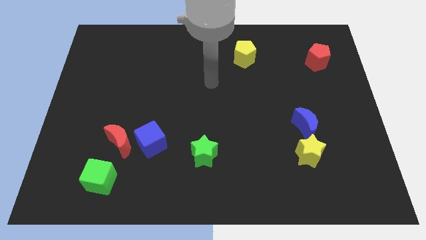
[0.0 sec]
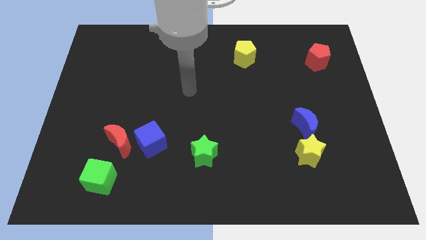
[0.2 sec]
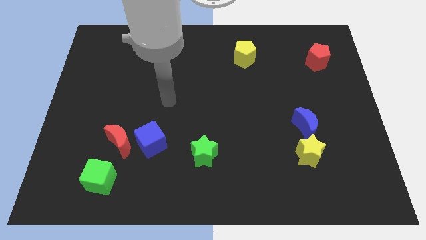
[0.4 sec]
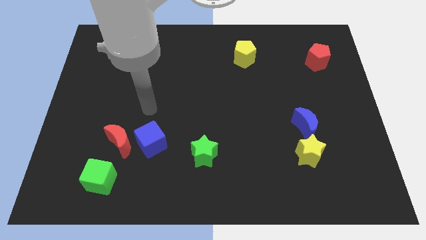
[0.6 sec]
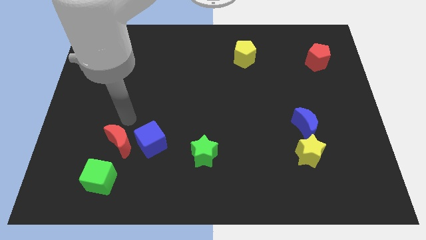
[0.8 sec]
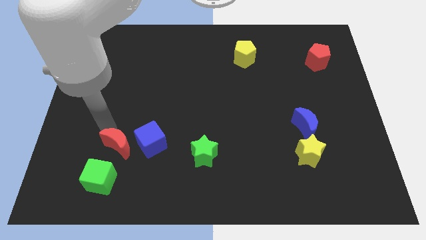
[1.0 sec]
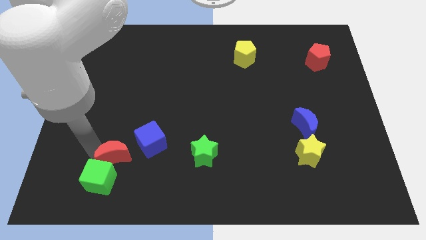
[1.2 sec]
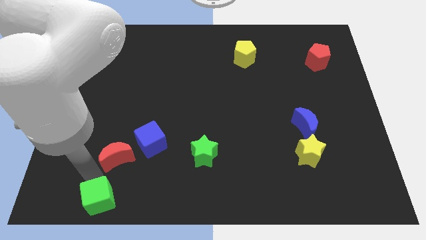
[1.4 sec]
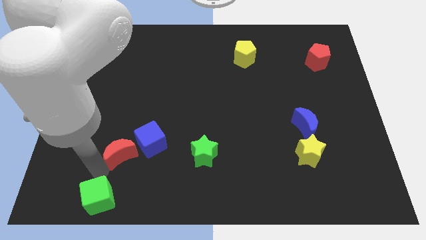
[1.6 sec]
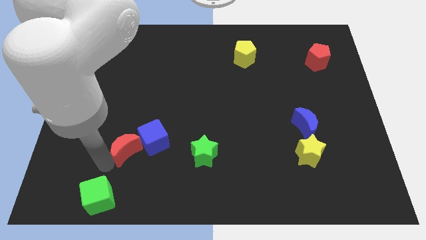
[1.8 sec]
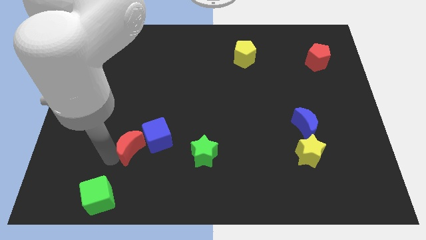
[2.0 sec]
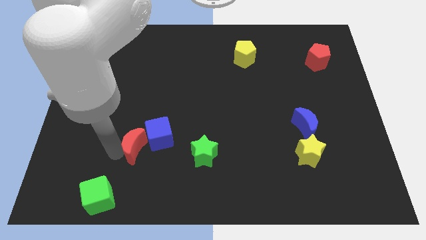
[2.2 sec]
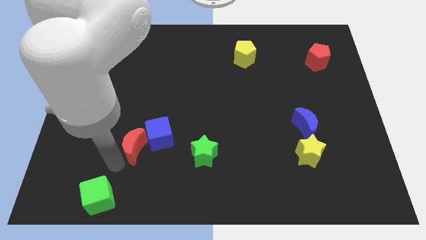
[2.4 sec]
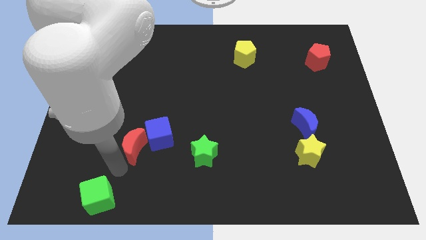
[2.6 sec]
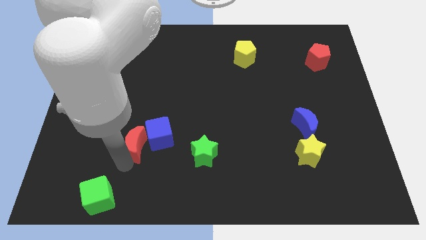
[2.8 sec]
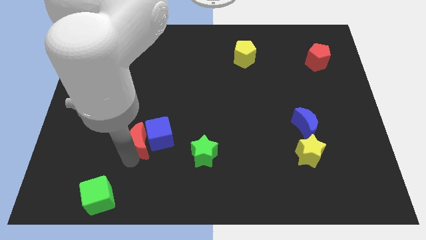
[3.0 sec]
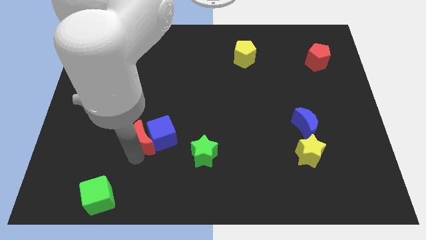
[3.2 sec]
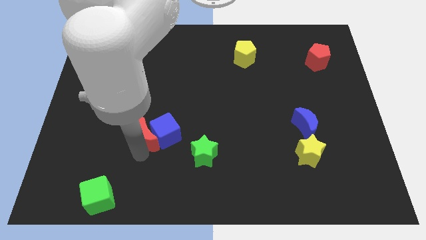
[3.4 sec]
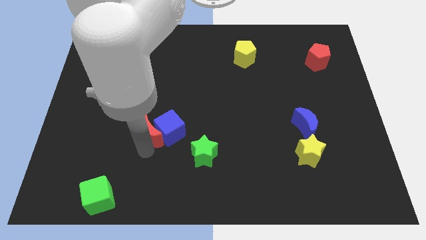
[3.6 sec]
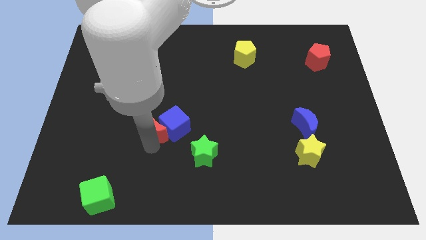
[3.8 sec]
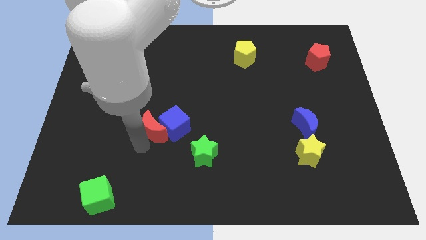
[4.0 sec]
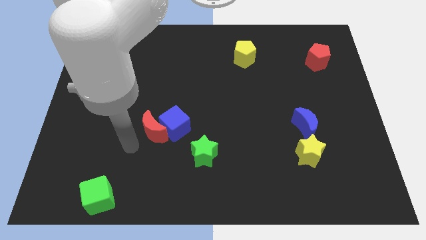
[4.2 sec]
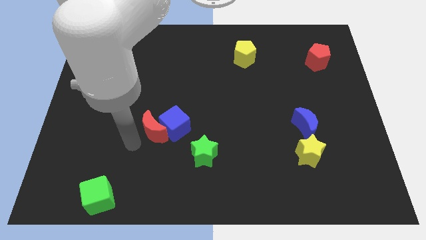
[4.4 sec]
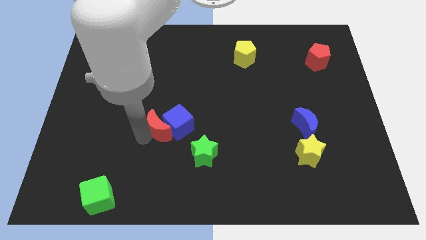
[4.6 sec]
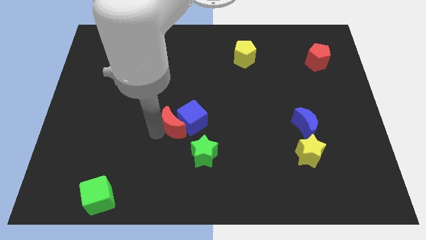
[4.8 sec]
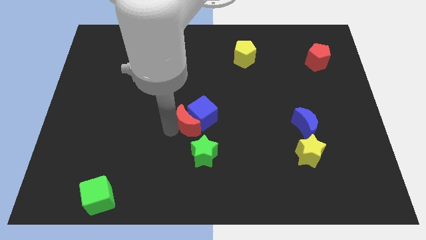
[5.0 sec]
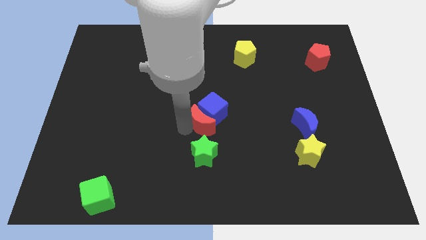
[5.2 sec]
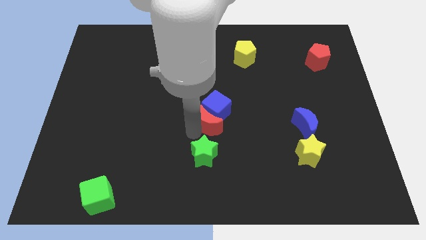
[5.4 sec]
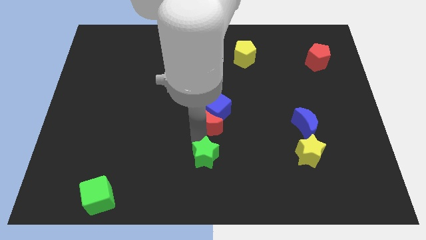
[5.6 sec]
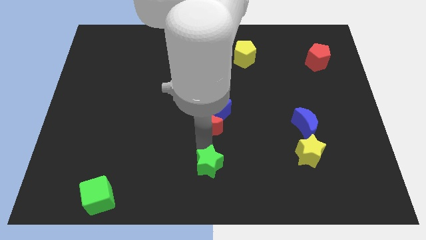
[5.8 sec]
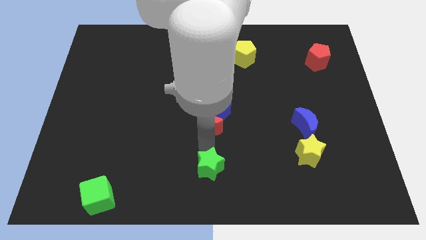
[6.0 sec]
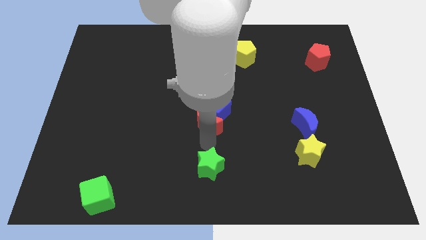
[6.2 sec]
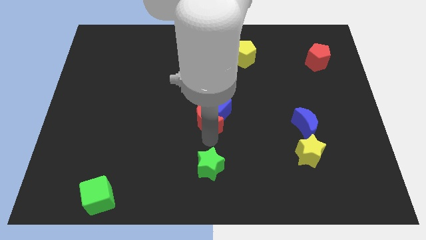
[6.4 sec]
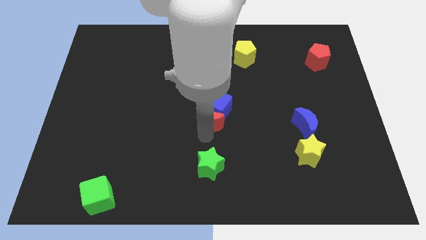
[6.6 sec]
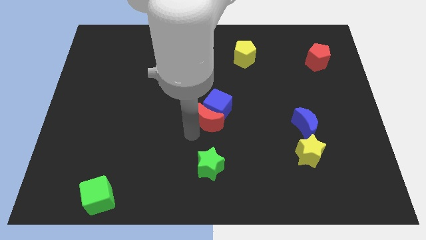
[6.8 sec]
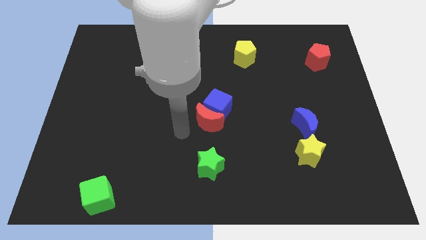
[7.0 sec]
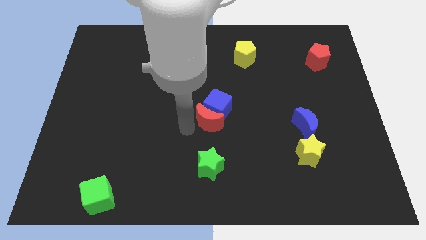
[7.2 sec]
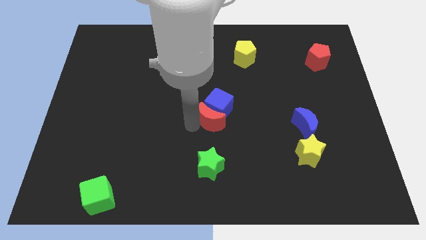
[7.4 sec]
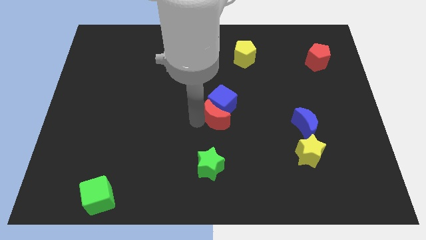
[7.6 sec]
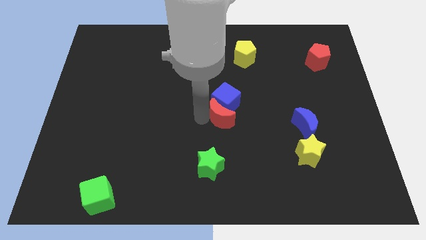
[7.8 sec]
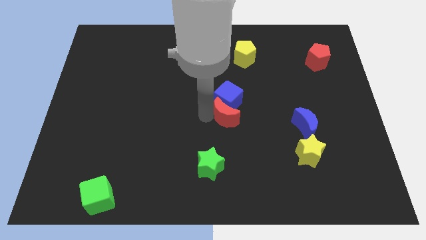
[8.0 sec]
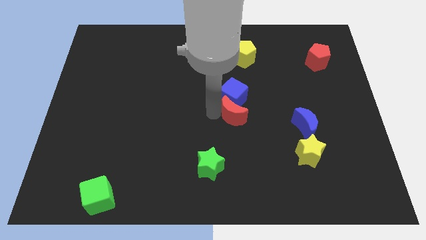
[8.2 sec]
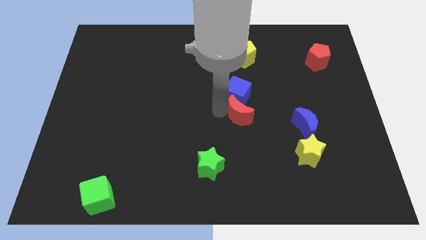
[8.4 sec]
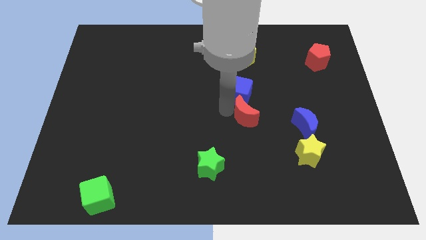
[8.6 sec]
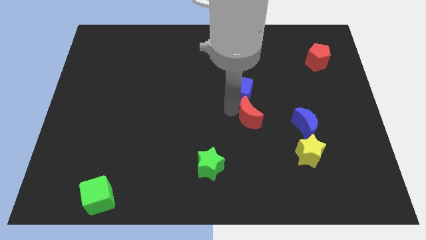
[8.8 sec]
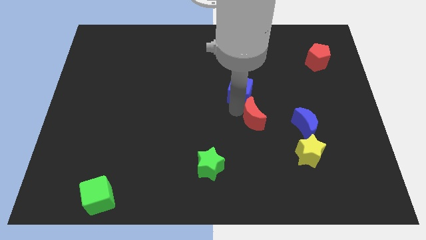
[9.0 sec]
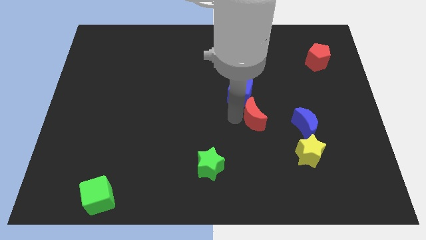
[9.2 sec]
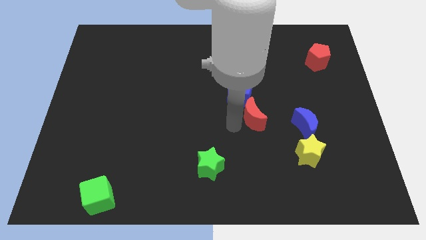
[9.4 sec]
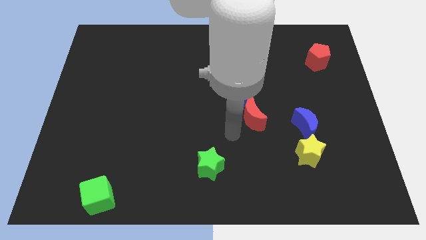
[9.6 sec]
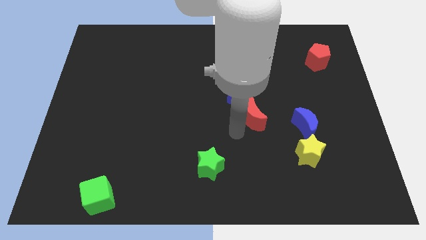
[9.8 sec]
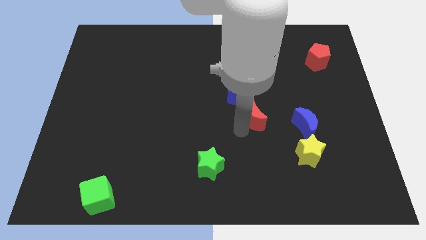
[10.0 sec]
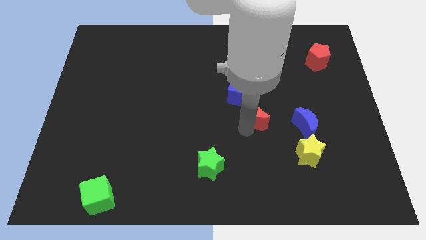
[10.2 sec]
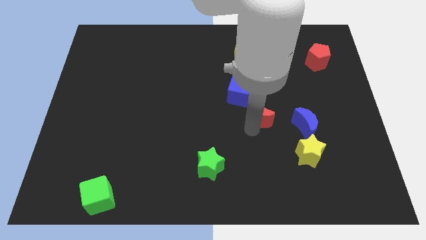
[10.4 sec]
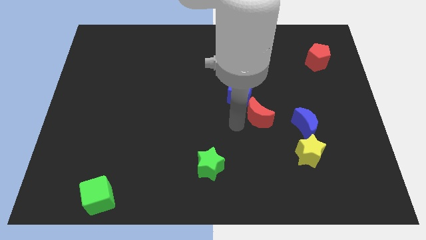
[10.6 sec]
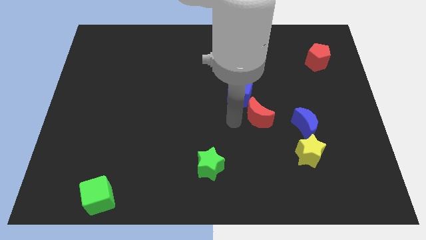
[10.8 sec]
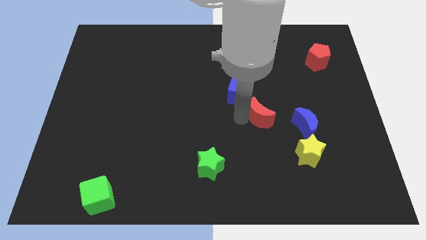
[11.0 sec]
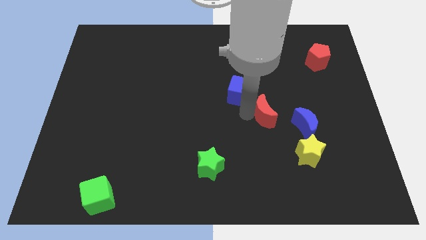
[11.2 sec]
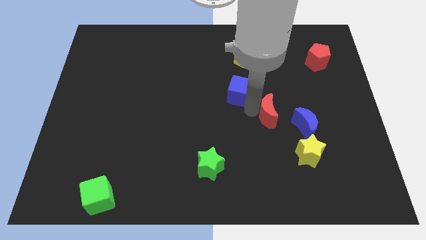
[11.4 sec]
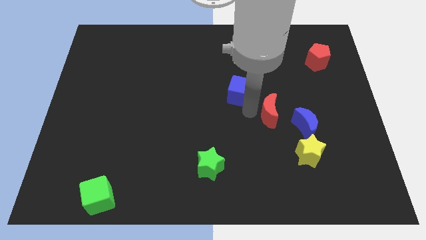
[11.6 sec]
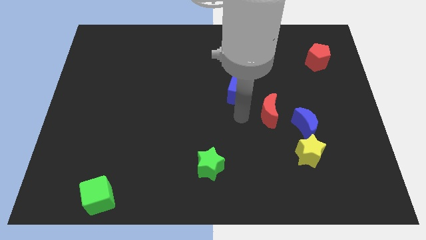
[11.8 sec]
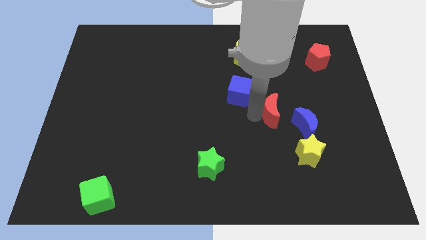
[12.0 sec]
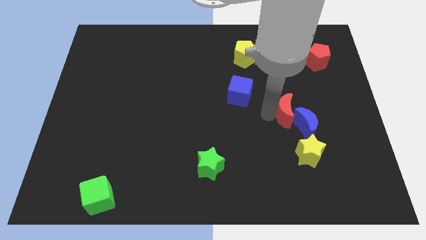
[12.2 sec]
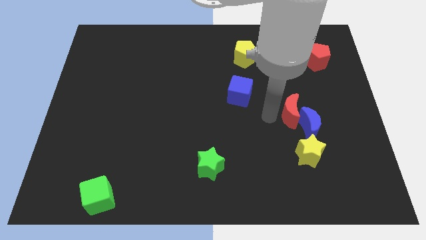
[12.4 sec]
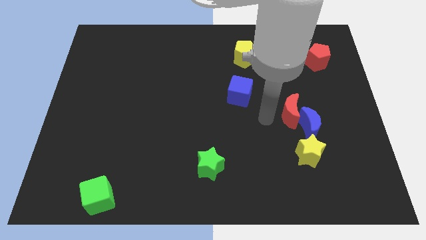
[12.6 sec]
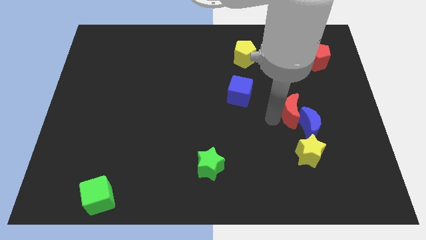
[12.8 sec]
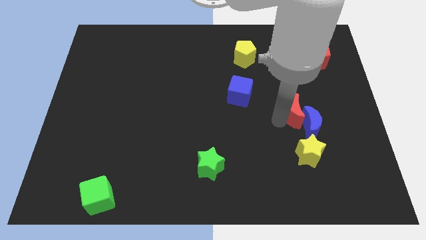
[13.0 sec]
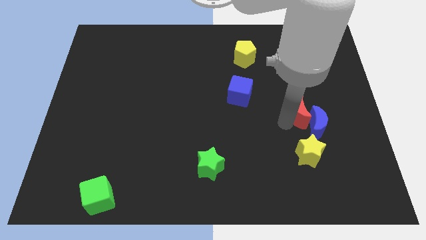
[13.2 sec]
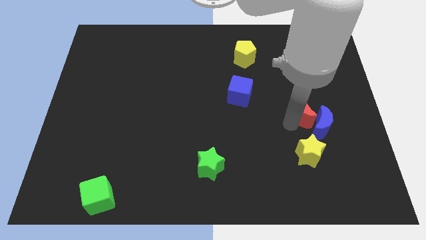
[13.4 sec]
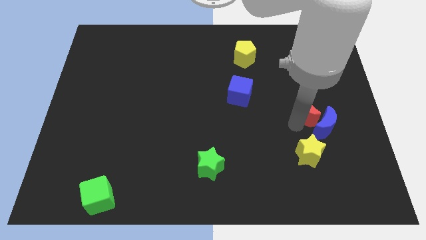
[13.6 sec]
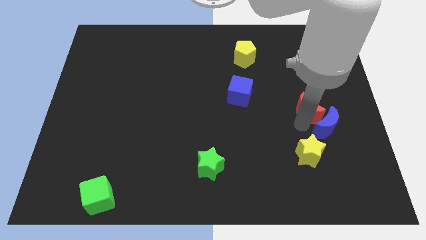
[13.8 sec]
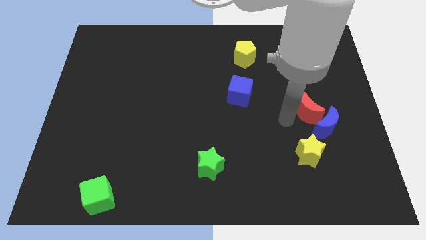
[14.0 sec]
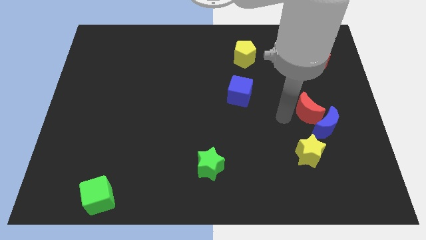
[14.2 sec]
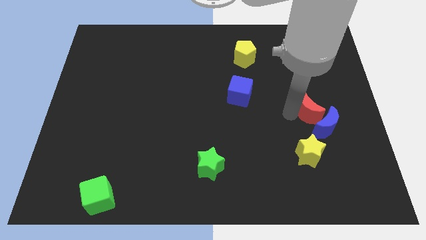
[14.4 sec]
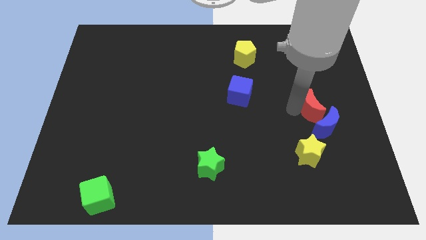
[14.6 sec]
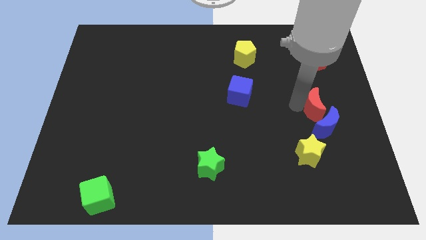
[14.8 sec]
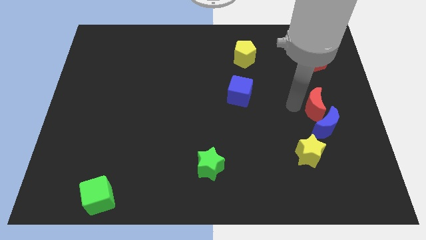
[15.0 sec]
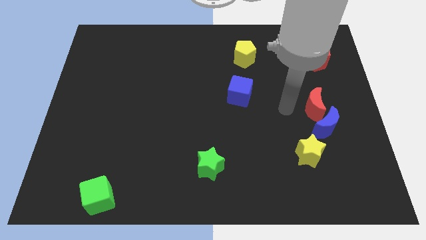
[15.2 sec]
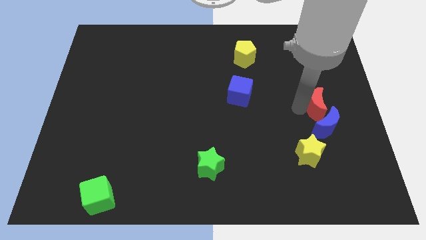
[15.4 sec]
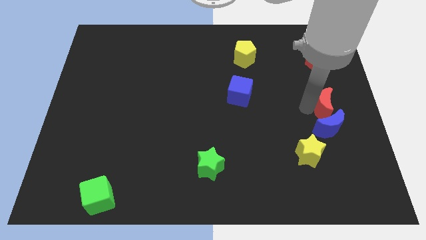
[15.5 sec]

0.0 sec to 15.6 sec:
put the red moon to the right side of the board
